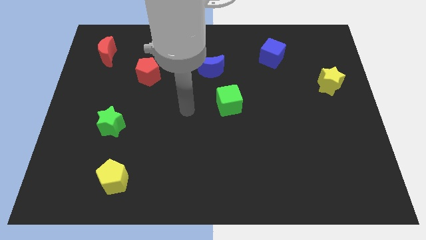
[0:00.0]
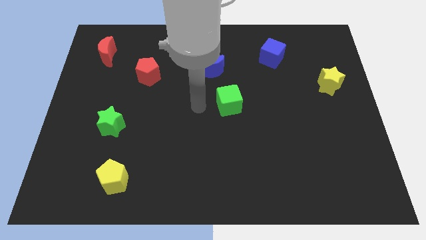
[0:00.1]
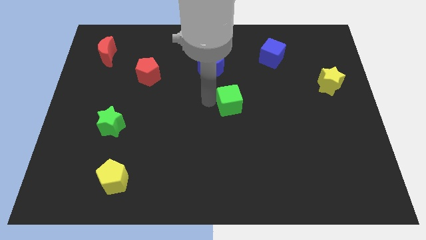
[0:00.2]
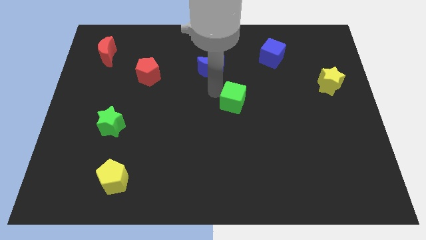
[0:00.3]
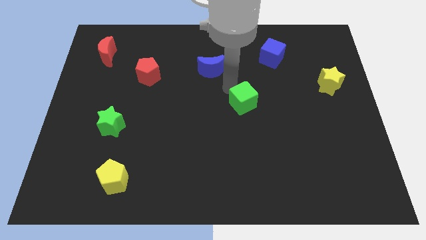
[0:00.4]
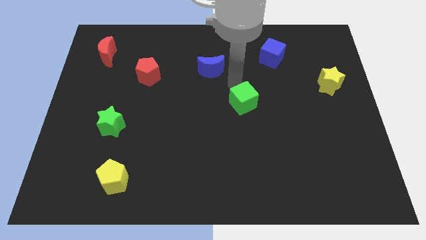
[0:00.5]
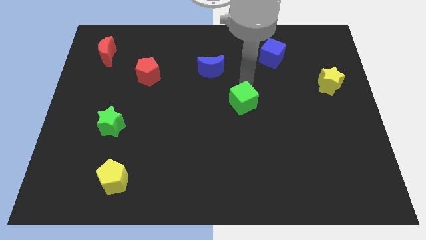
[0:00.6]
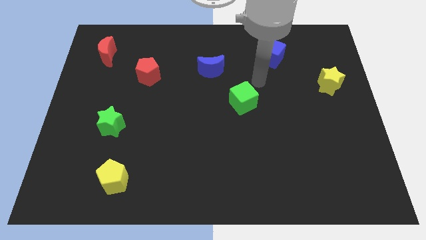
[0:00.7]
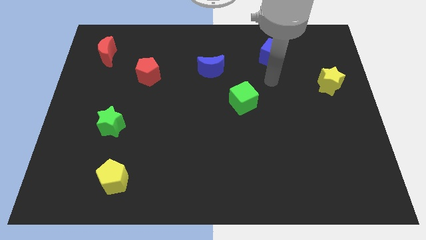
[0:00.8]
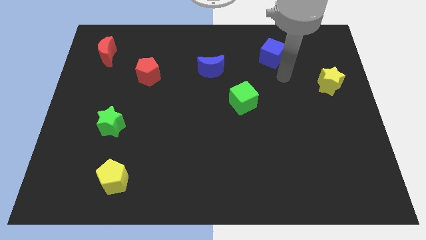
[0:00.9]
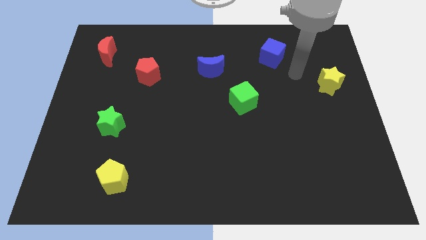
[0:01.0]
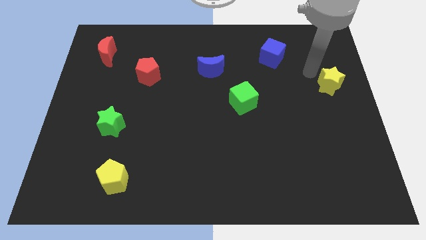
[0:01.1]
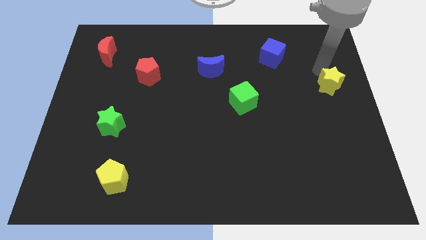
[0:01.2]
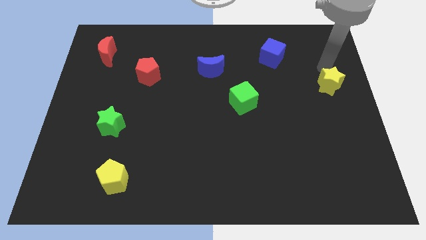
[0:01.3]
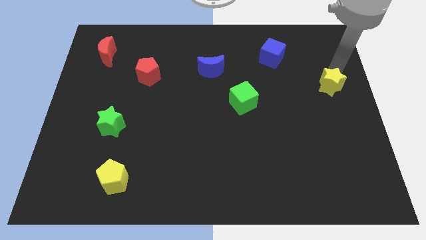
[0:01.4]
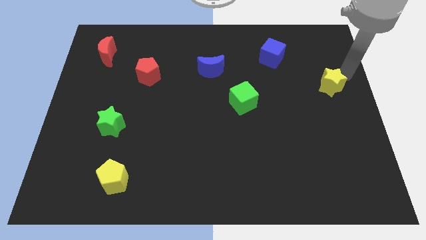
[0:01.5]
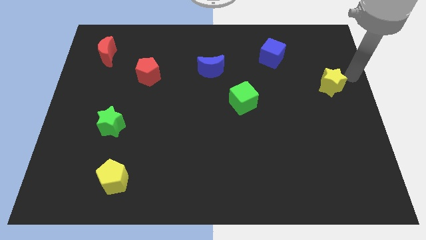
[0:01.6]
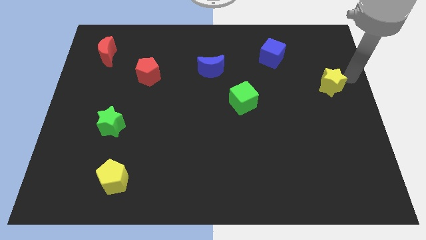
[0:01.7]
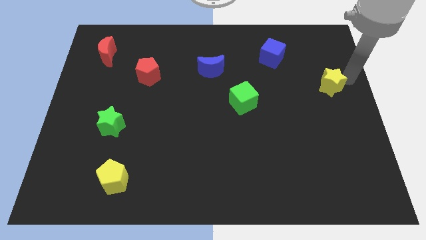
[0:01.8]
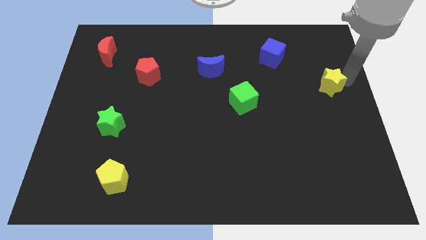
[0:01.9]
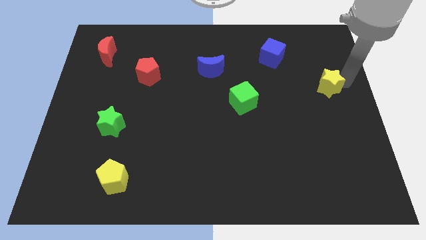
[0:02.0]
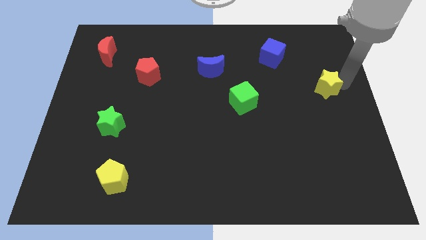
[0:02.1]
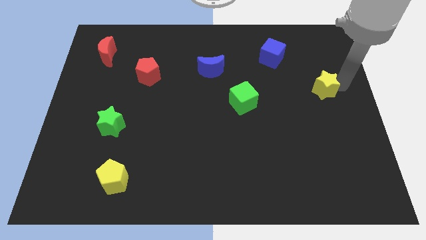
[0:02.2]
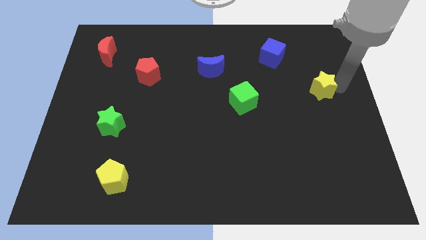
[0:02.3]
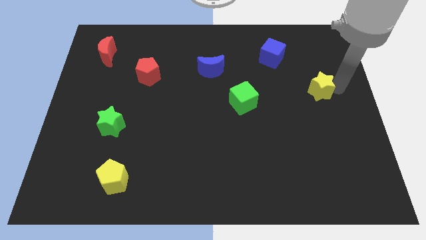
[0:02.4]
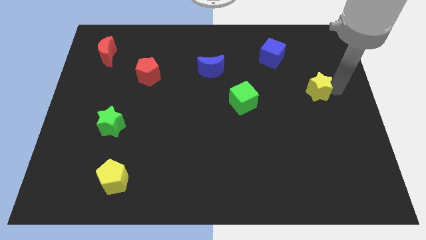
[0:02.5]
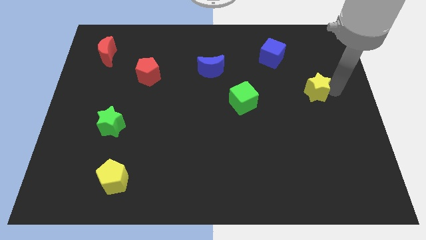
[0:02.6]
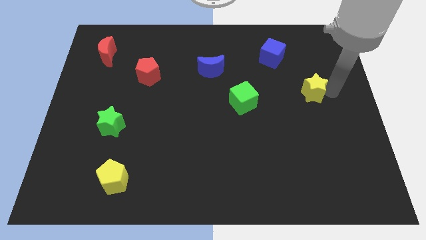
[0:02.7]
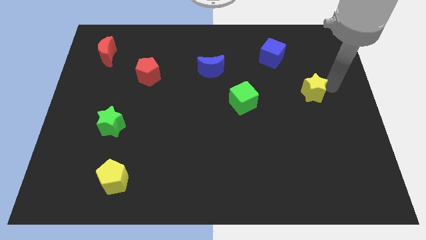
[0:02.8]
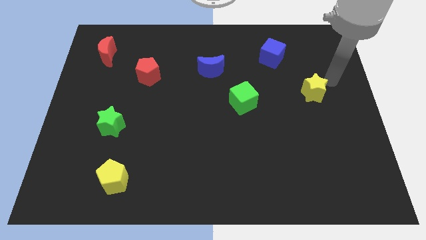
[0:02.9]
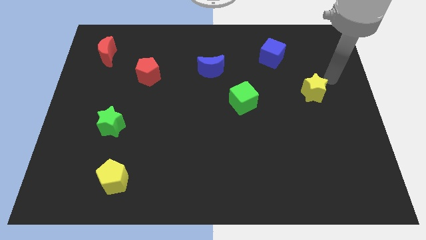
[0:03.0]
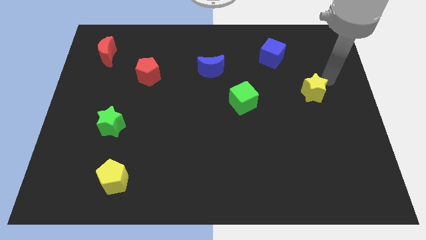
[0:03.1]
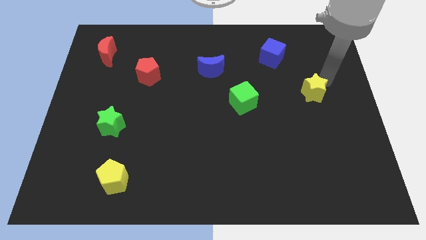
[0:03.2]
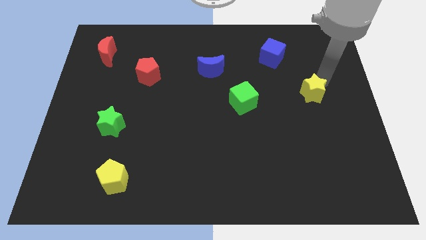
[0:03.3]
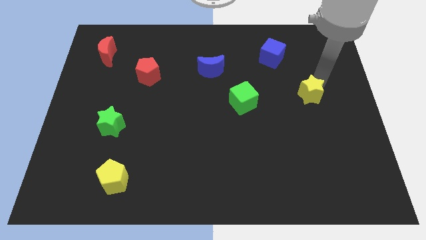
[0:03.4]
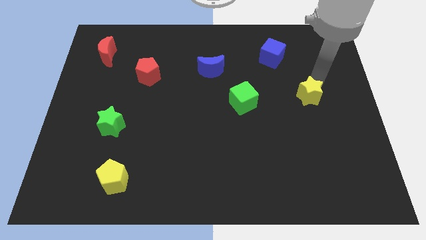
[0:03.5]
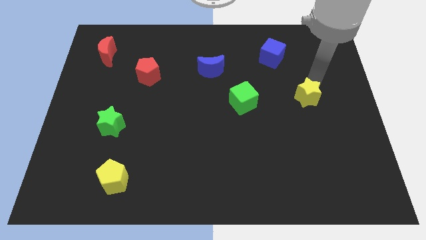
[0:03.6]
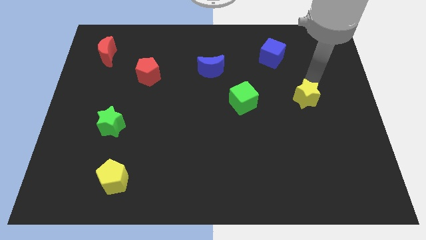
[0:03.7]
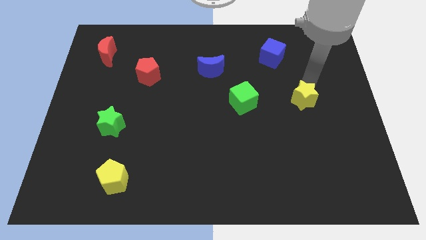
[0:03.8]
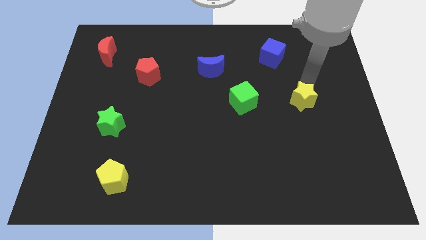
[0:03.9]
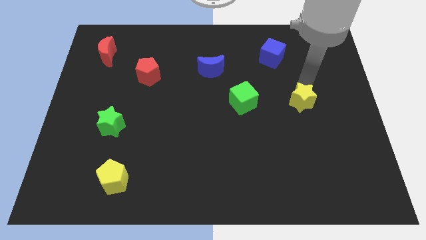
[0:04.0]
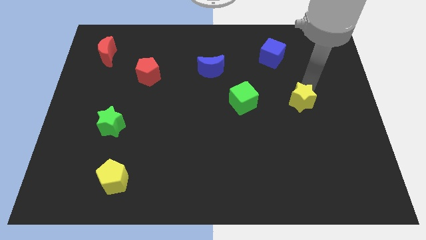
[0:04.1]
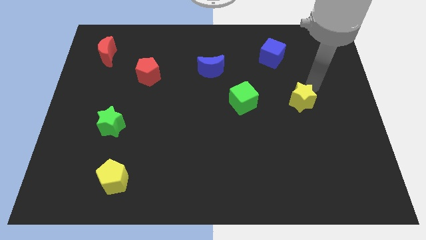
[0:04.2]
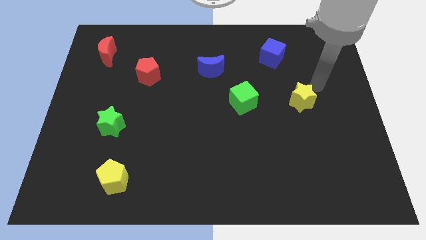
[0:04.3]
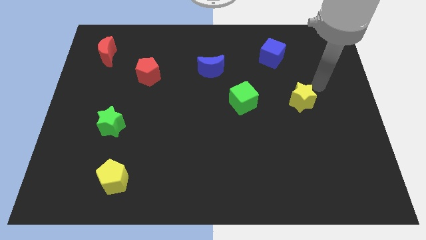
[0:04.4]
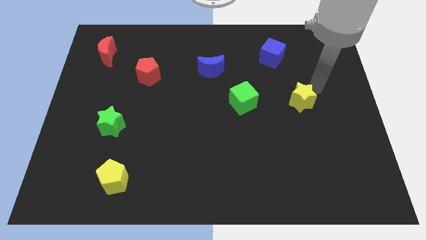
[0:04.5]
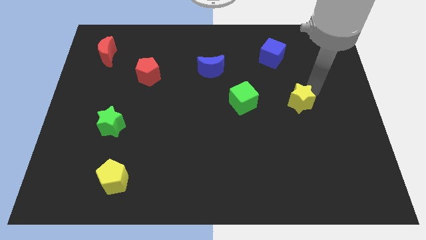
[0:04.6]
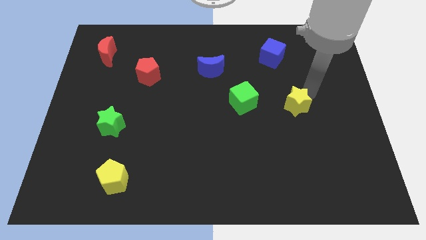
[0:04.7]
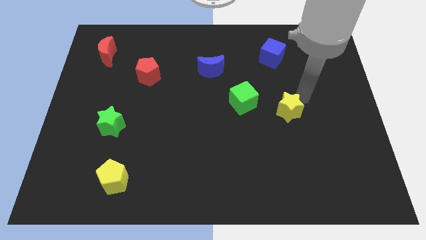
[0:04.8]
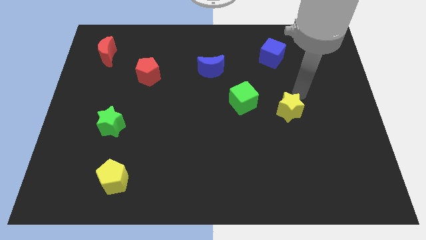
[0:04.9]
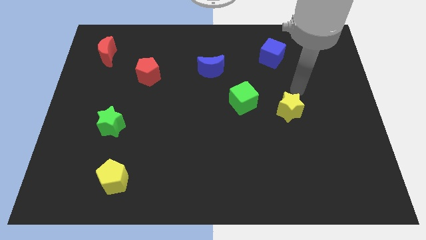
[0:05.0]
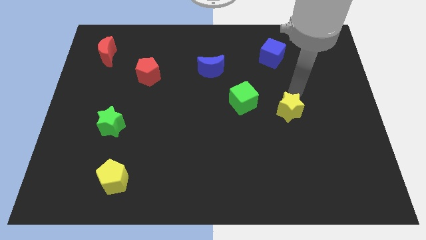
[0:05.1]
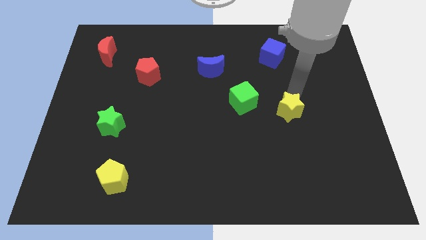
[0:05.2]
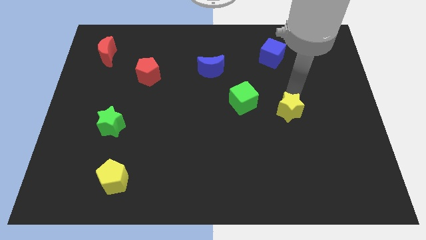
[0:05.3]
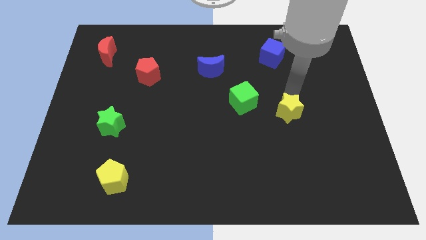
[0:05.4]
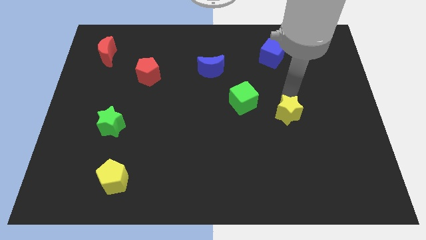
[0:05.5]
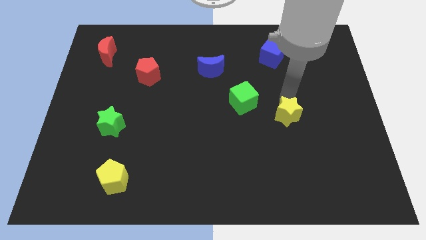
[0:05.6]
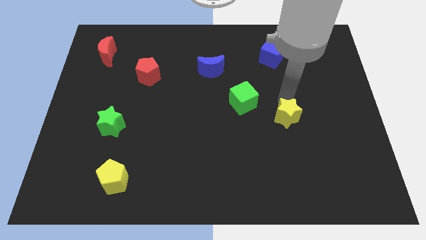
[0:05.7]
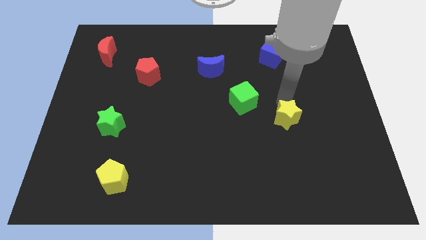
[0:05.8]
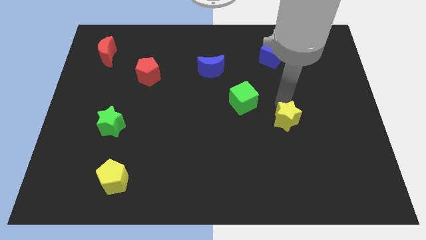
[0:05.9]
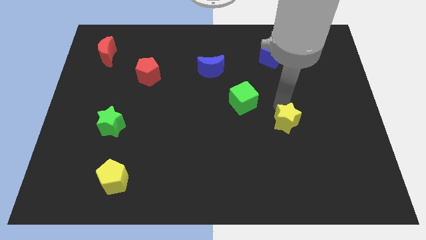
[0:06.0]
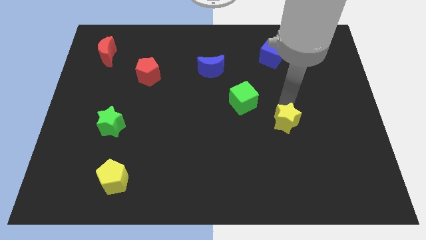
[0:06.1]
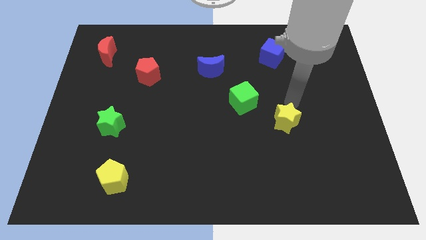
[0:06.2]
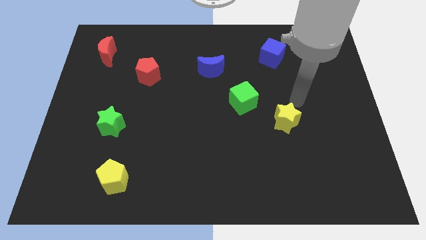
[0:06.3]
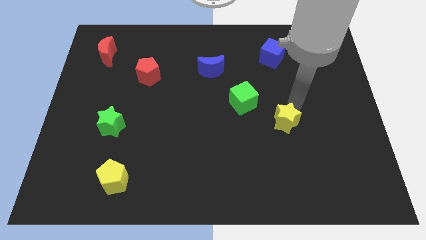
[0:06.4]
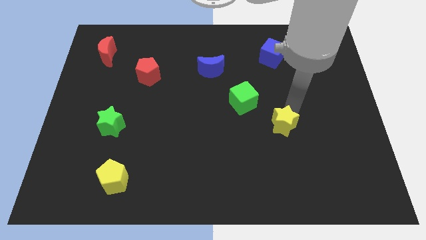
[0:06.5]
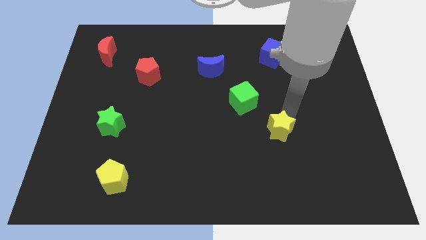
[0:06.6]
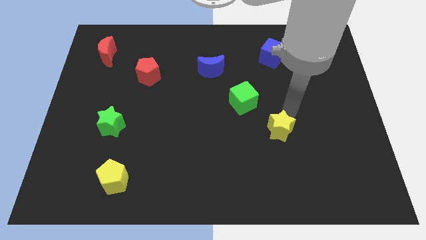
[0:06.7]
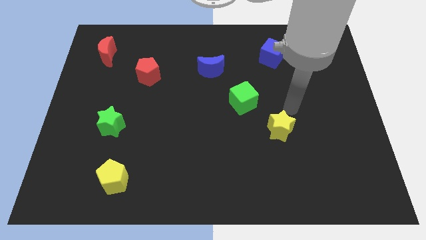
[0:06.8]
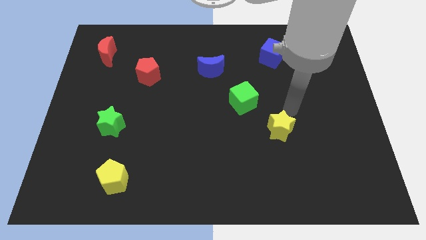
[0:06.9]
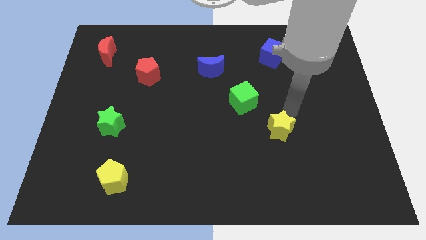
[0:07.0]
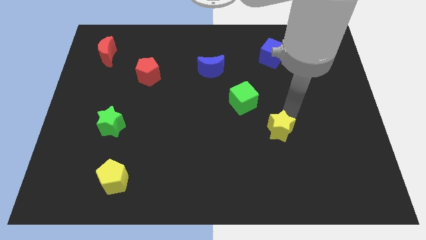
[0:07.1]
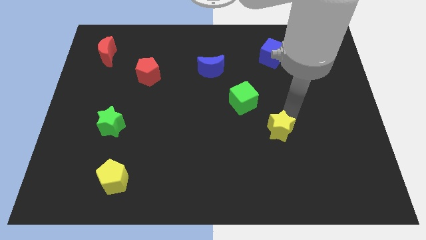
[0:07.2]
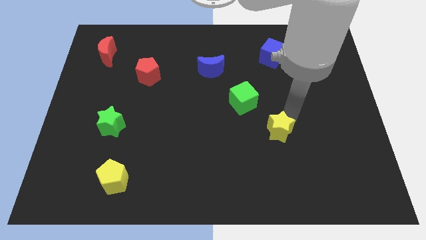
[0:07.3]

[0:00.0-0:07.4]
move the yellow star down and then left

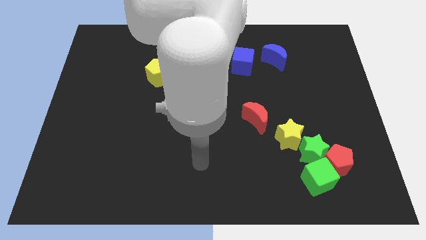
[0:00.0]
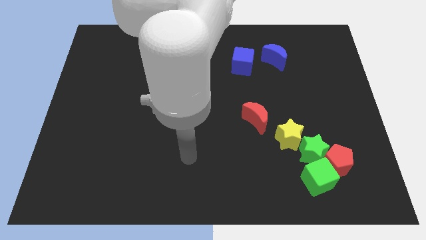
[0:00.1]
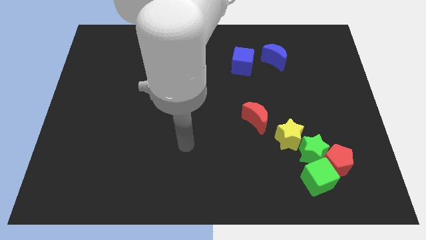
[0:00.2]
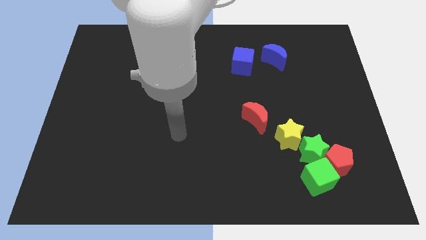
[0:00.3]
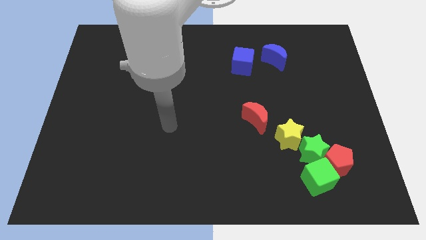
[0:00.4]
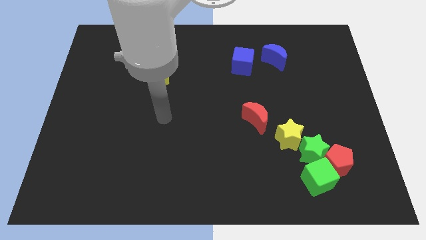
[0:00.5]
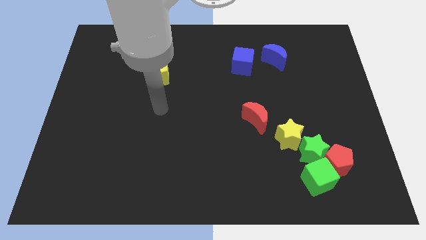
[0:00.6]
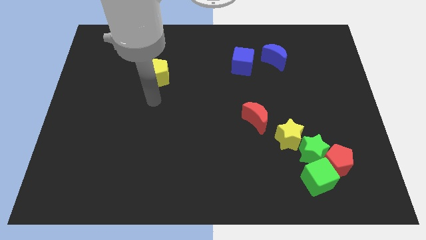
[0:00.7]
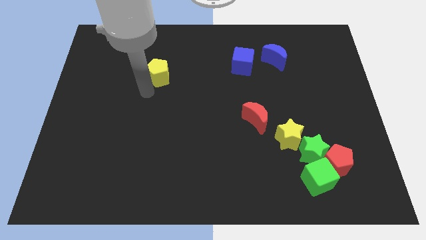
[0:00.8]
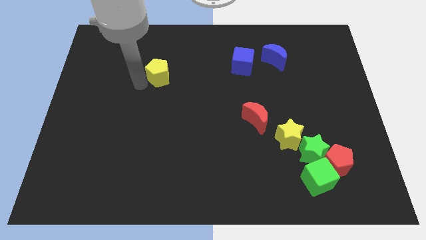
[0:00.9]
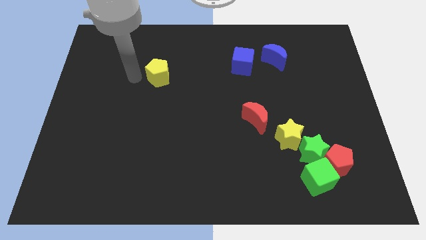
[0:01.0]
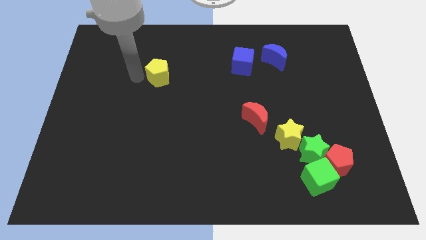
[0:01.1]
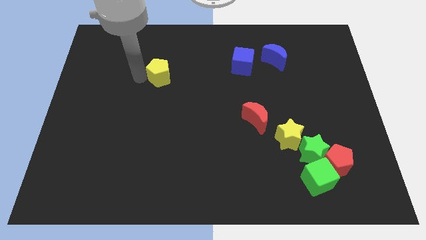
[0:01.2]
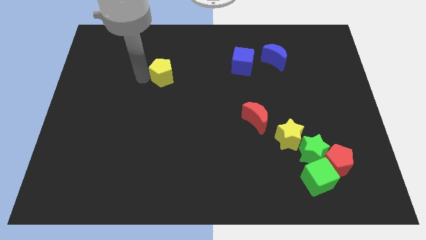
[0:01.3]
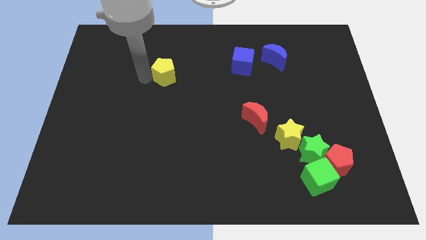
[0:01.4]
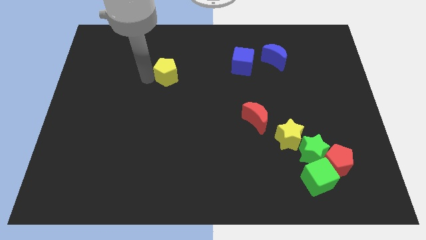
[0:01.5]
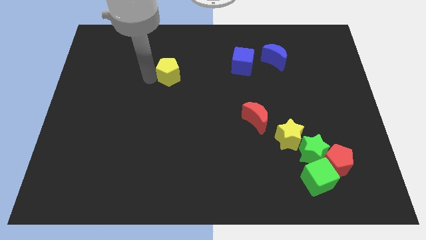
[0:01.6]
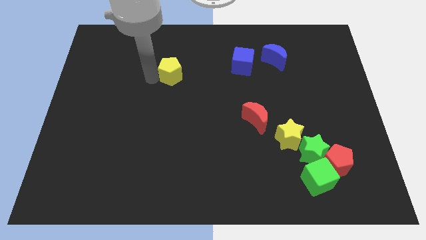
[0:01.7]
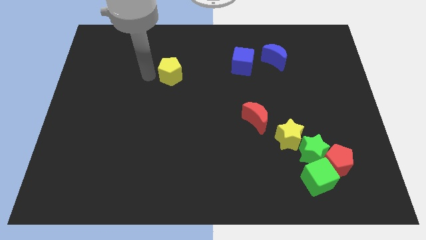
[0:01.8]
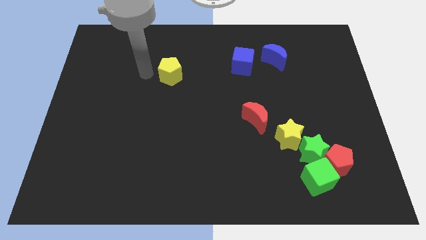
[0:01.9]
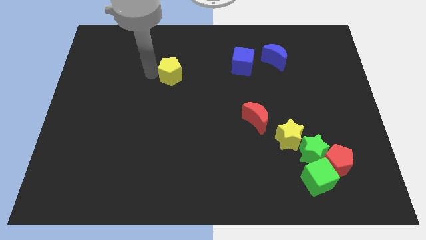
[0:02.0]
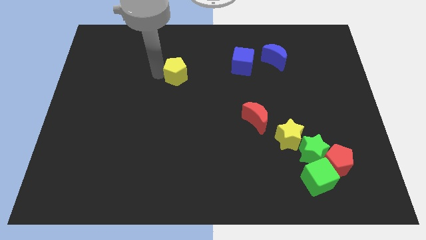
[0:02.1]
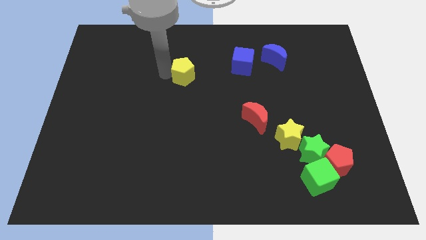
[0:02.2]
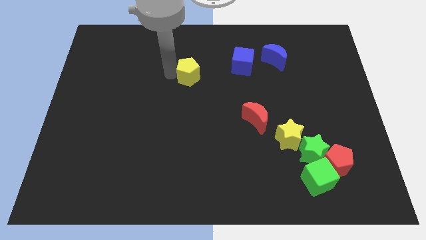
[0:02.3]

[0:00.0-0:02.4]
push the yellow pentagon a bit right
